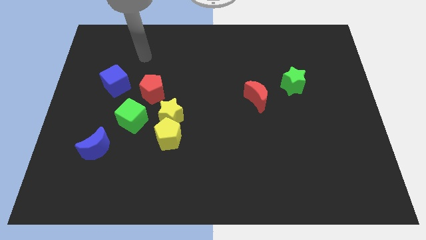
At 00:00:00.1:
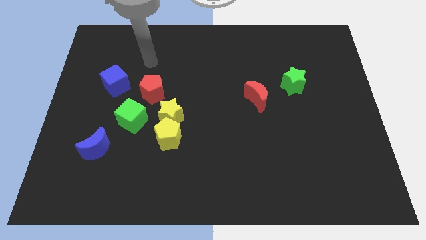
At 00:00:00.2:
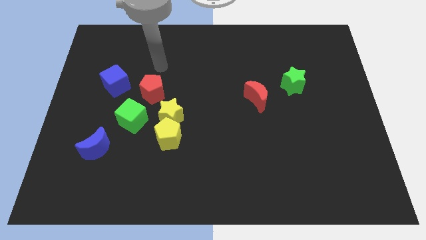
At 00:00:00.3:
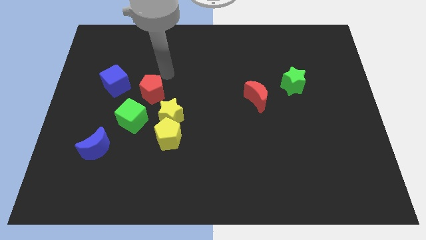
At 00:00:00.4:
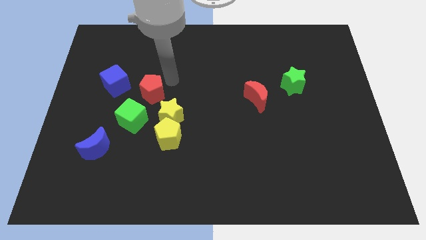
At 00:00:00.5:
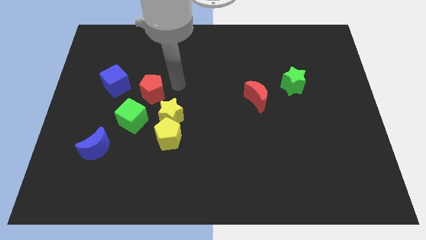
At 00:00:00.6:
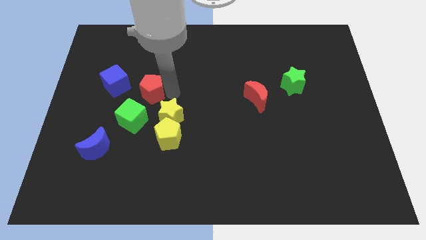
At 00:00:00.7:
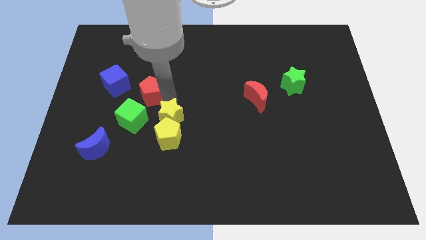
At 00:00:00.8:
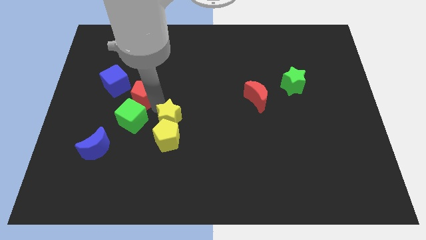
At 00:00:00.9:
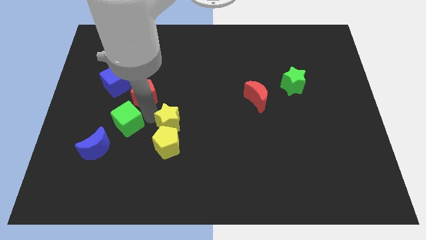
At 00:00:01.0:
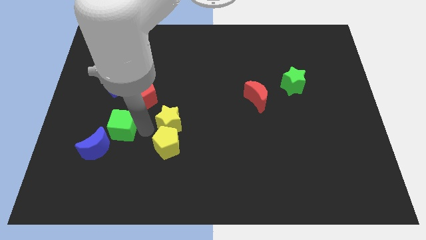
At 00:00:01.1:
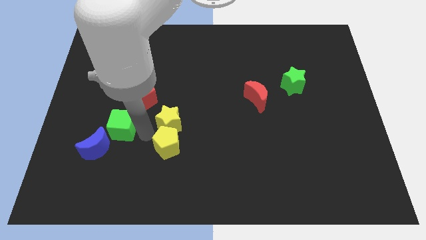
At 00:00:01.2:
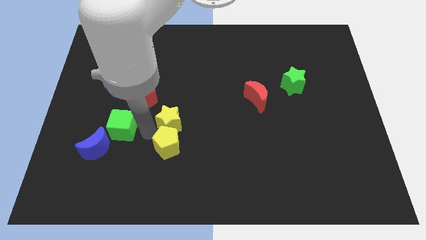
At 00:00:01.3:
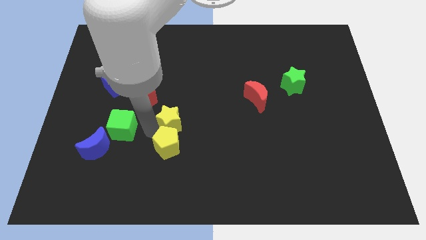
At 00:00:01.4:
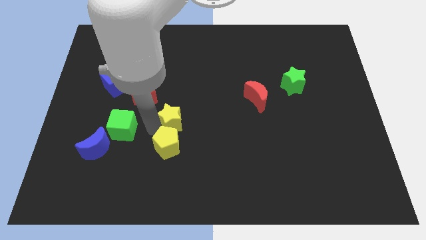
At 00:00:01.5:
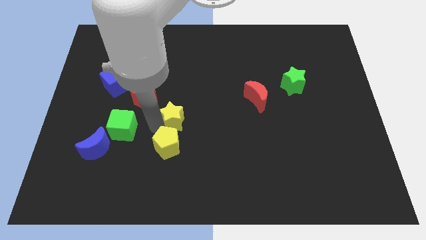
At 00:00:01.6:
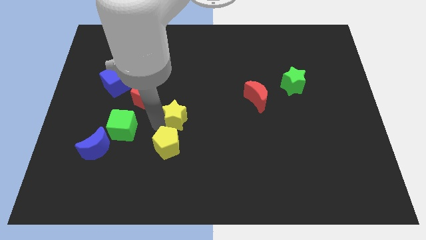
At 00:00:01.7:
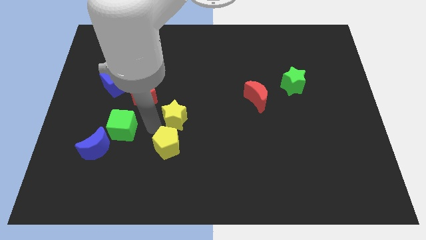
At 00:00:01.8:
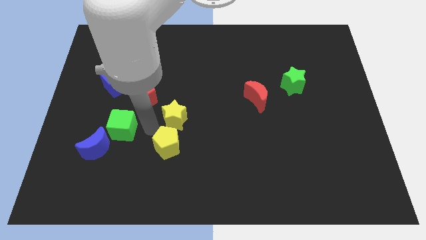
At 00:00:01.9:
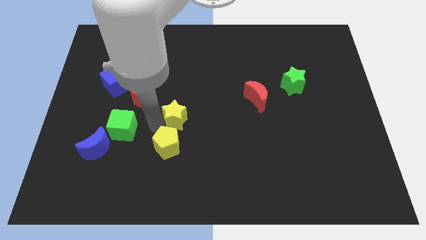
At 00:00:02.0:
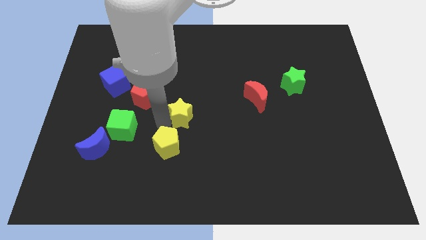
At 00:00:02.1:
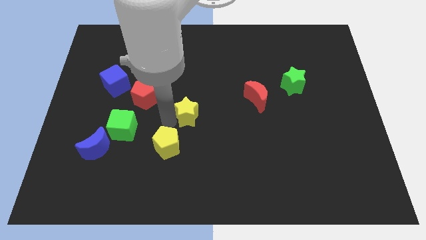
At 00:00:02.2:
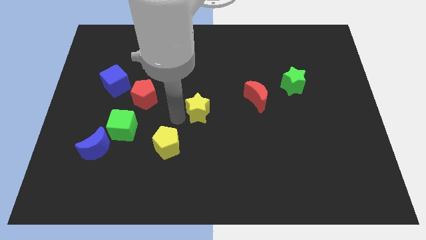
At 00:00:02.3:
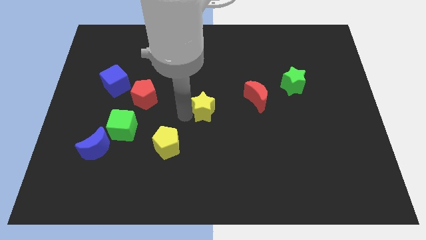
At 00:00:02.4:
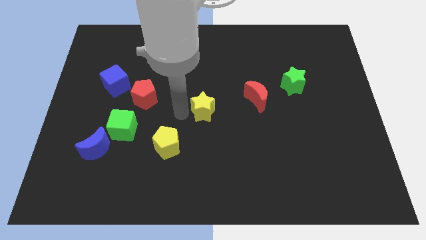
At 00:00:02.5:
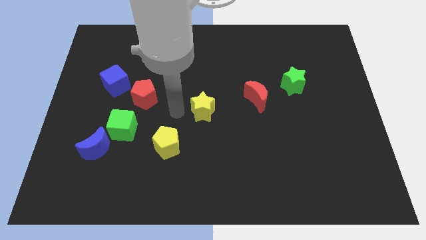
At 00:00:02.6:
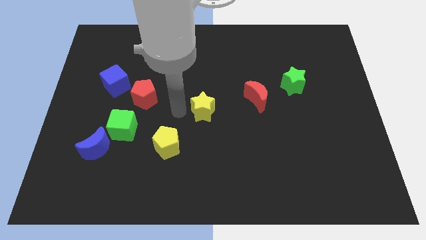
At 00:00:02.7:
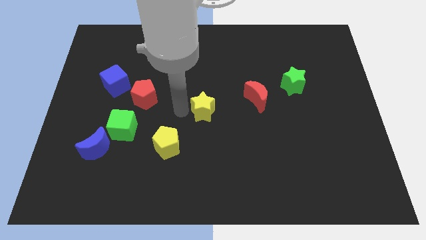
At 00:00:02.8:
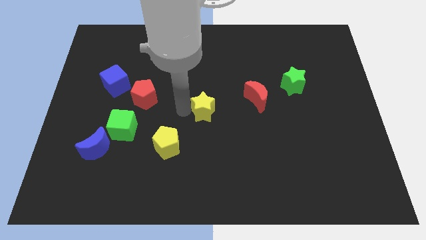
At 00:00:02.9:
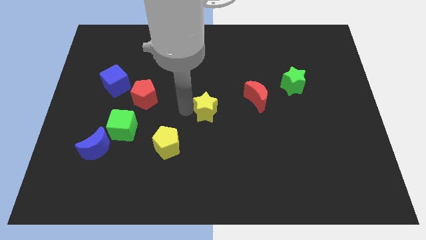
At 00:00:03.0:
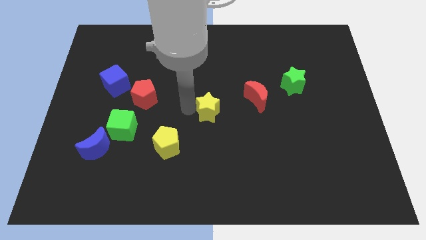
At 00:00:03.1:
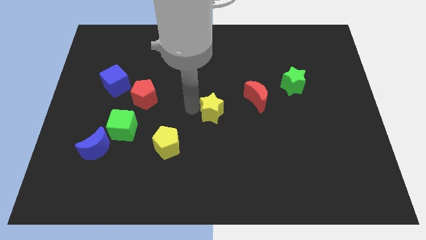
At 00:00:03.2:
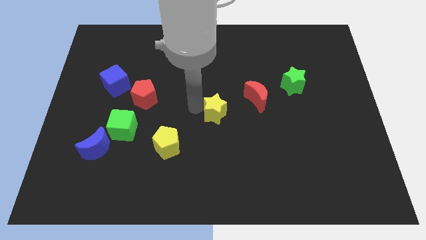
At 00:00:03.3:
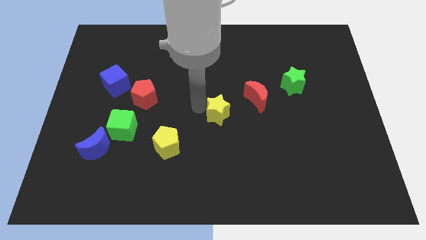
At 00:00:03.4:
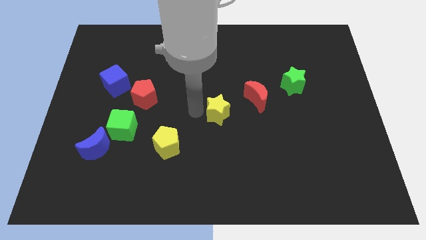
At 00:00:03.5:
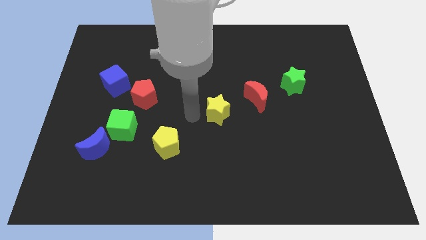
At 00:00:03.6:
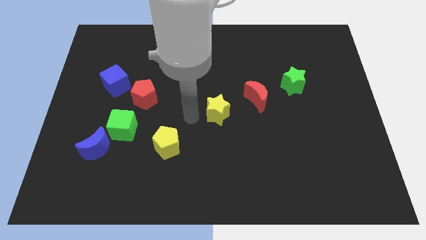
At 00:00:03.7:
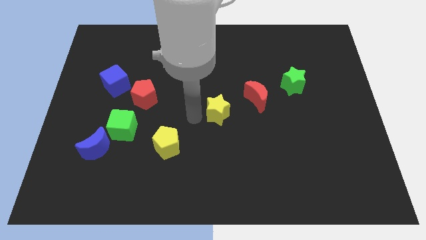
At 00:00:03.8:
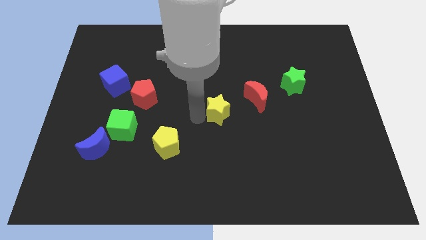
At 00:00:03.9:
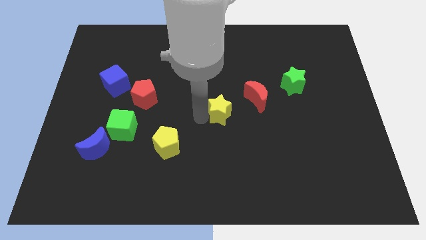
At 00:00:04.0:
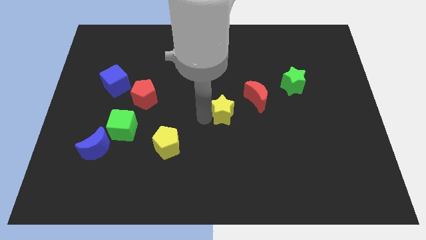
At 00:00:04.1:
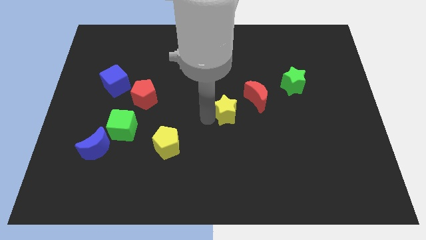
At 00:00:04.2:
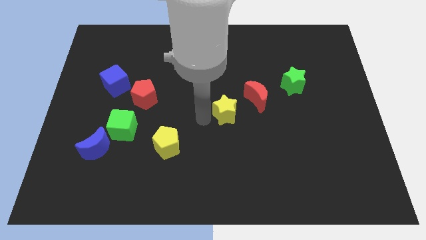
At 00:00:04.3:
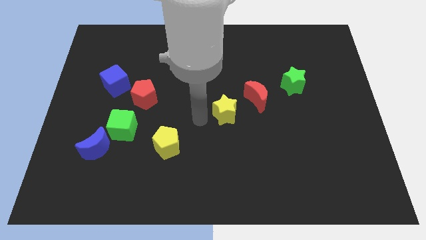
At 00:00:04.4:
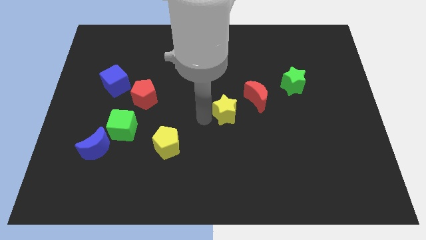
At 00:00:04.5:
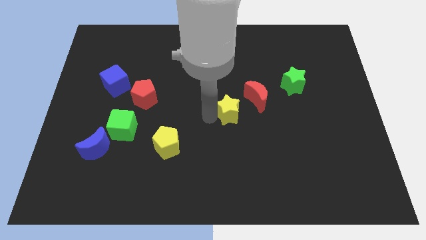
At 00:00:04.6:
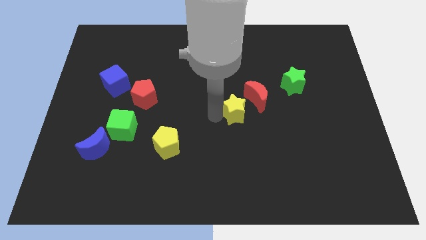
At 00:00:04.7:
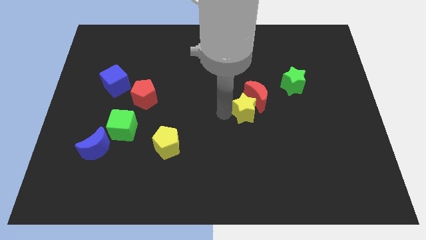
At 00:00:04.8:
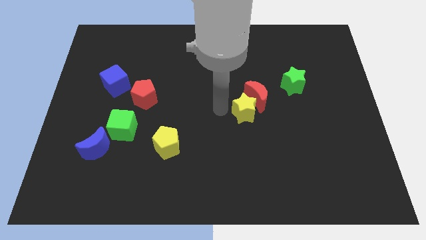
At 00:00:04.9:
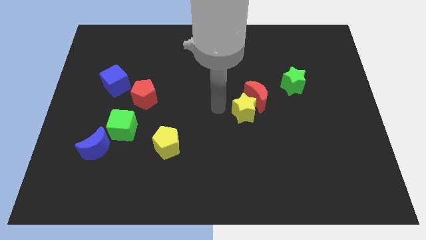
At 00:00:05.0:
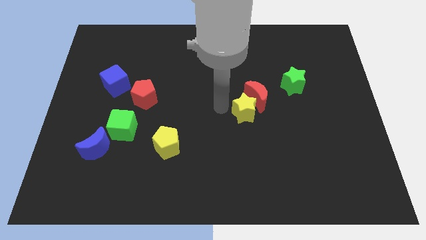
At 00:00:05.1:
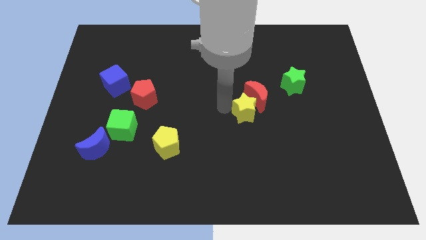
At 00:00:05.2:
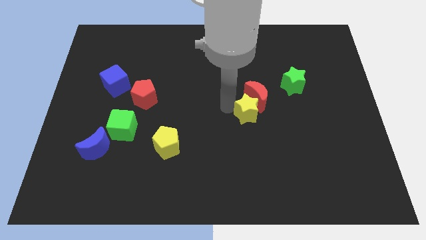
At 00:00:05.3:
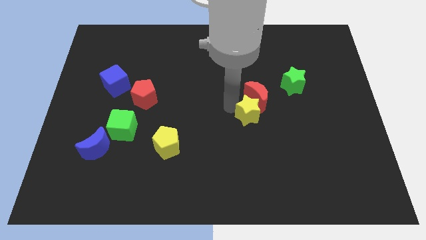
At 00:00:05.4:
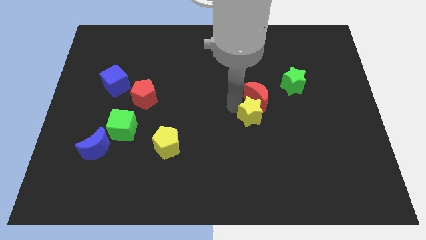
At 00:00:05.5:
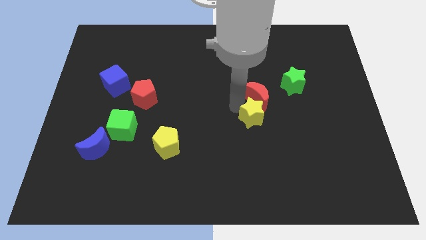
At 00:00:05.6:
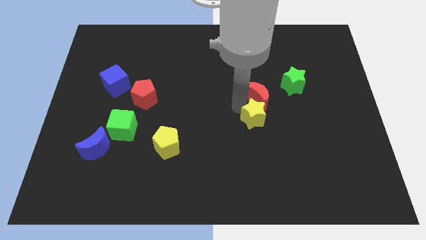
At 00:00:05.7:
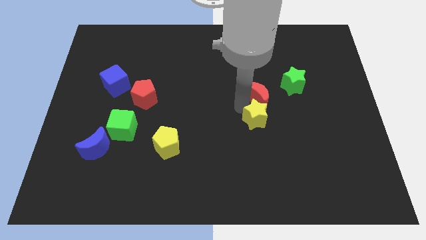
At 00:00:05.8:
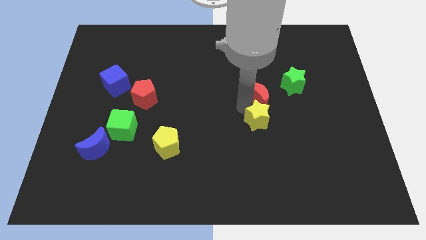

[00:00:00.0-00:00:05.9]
move the yellow star to the right

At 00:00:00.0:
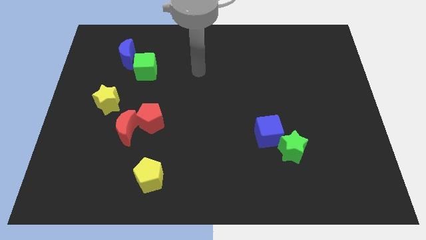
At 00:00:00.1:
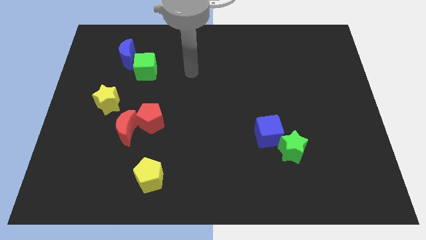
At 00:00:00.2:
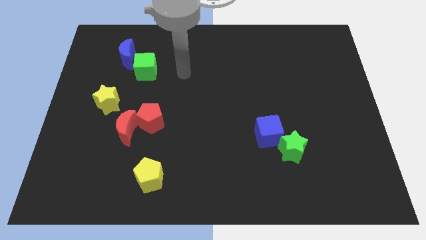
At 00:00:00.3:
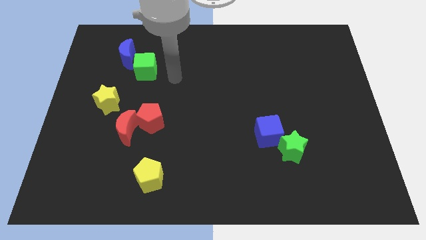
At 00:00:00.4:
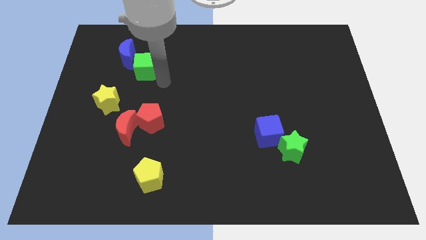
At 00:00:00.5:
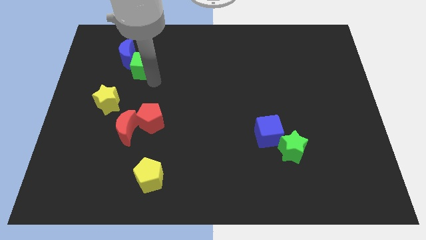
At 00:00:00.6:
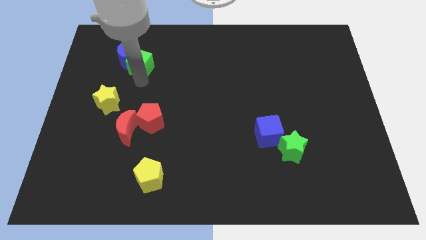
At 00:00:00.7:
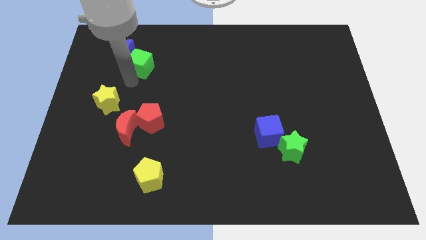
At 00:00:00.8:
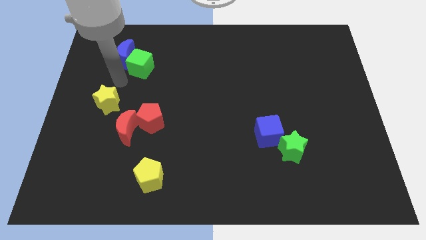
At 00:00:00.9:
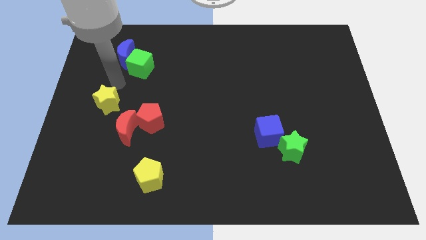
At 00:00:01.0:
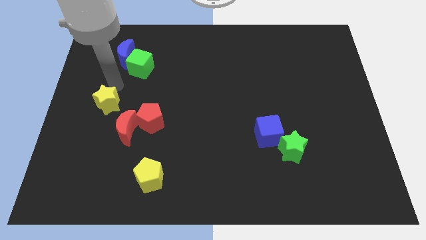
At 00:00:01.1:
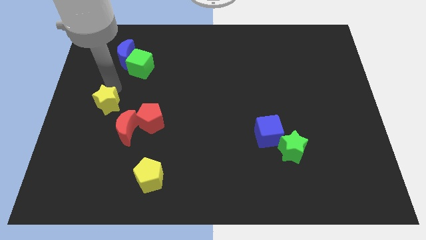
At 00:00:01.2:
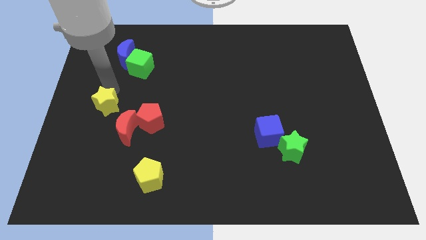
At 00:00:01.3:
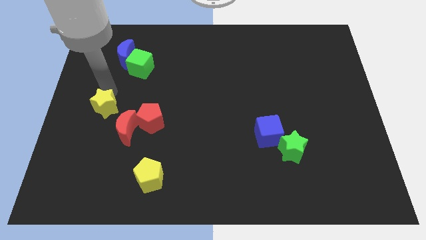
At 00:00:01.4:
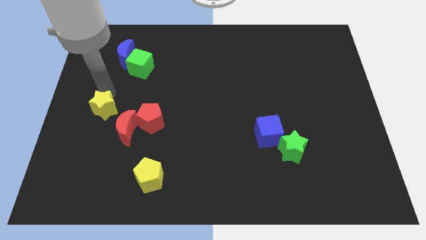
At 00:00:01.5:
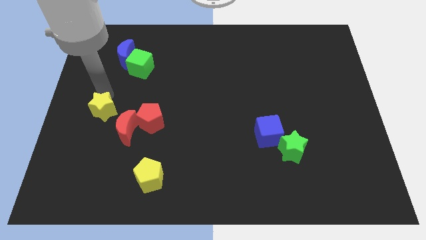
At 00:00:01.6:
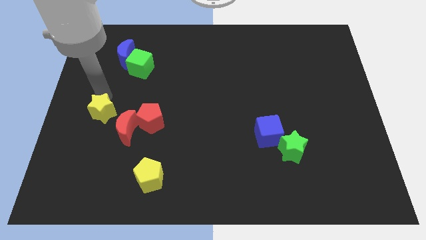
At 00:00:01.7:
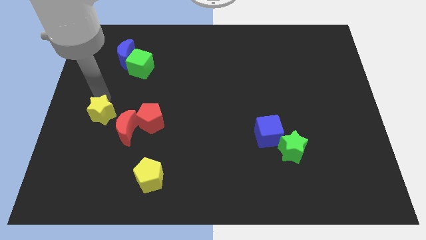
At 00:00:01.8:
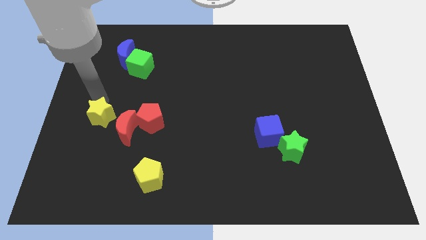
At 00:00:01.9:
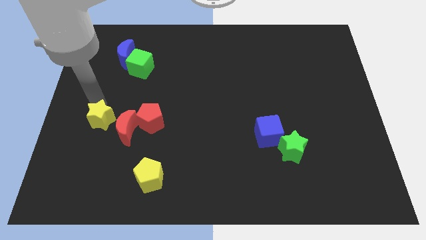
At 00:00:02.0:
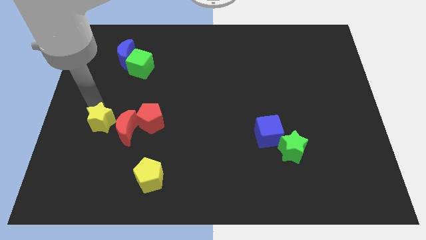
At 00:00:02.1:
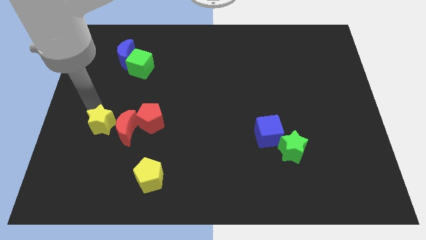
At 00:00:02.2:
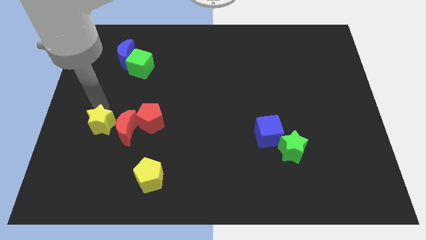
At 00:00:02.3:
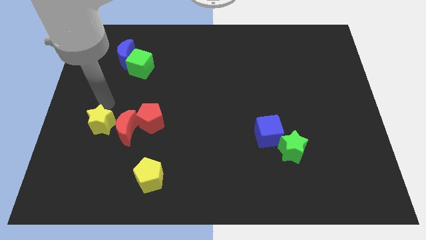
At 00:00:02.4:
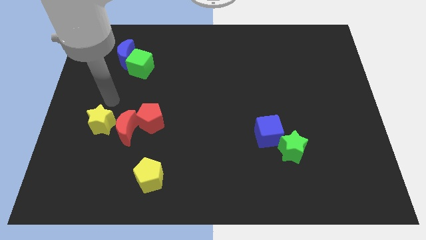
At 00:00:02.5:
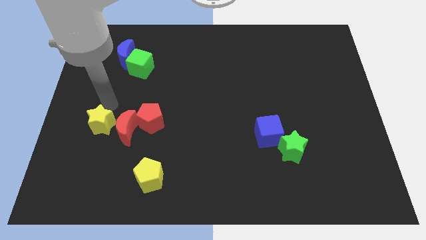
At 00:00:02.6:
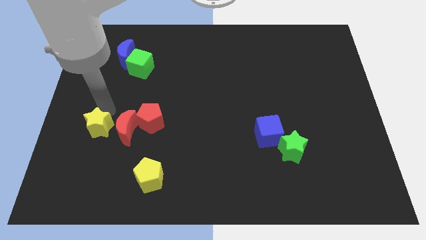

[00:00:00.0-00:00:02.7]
slide the yellow star downwards somewhat
